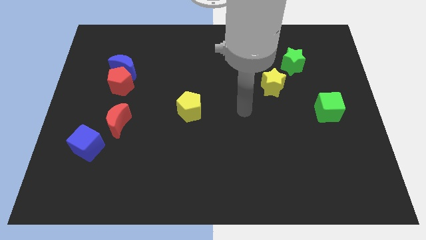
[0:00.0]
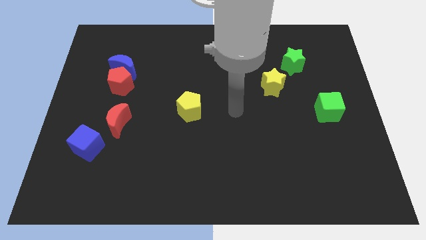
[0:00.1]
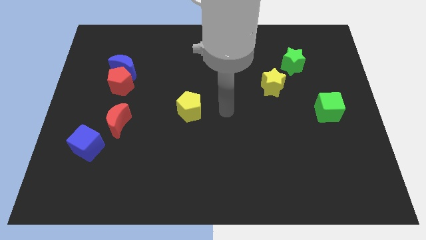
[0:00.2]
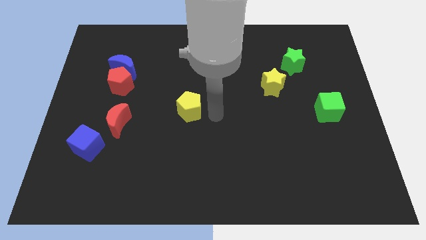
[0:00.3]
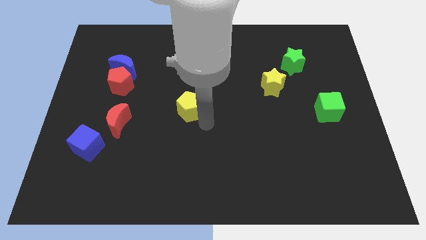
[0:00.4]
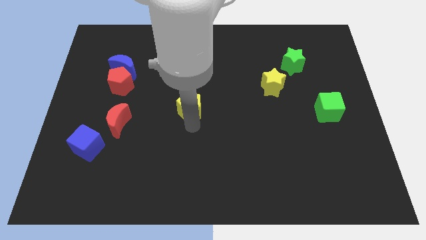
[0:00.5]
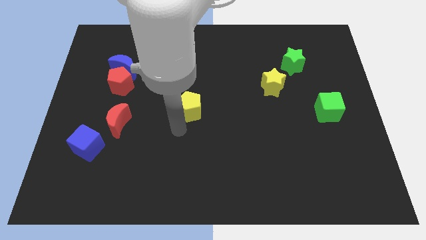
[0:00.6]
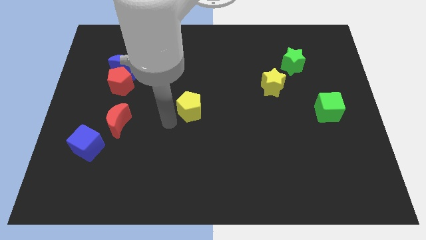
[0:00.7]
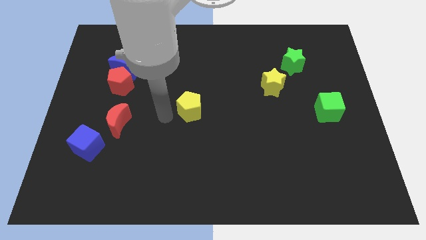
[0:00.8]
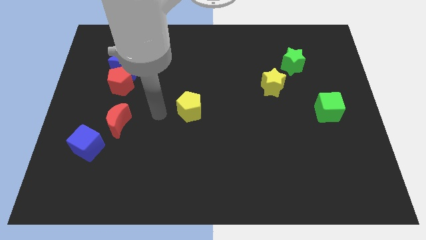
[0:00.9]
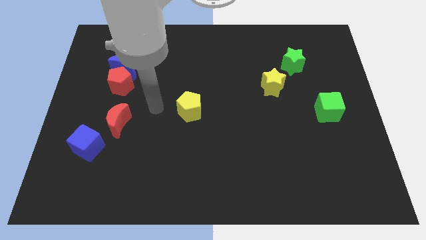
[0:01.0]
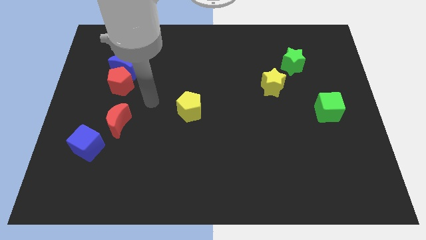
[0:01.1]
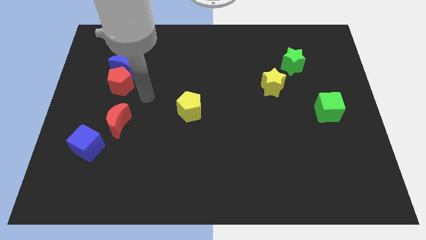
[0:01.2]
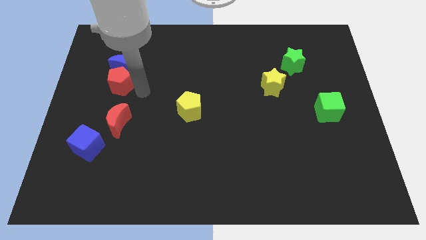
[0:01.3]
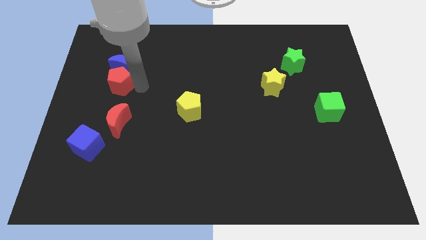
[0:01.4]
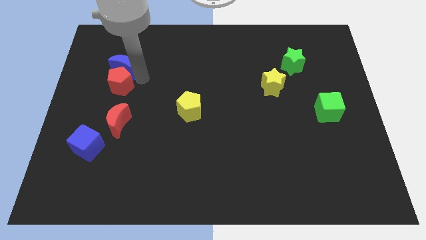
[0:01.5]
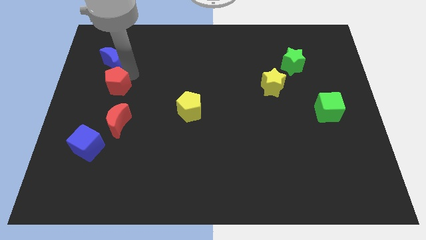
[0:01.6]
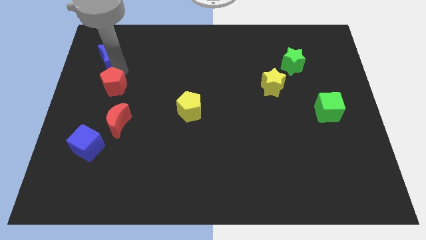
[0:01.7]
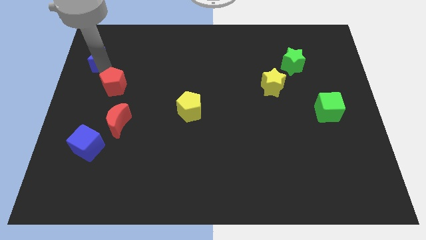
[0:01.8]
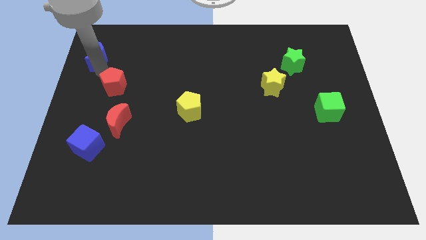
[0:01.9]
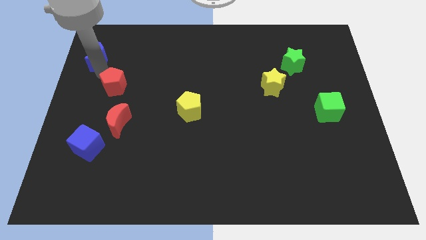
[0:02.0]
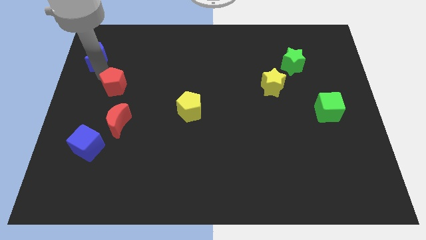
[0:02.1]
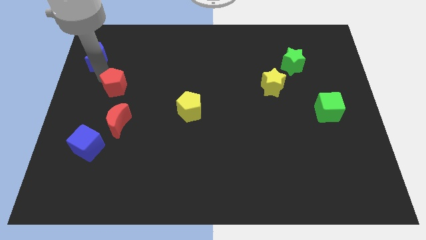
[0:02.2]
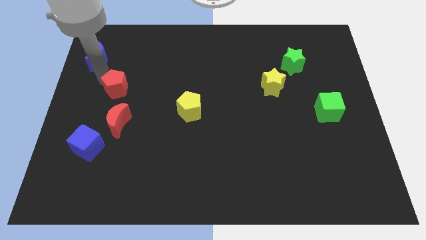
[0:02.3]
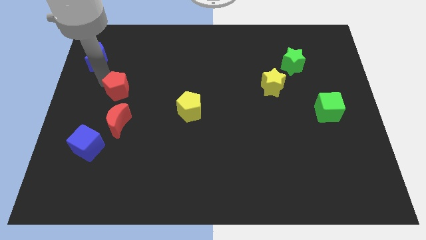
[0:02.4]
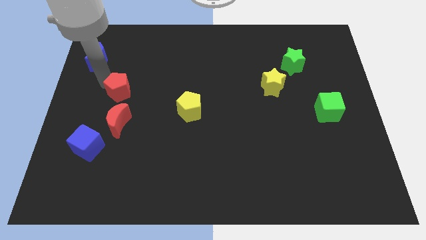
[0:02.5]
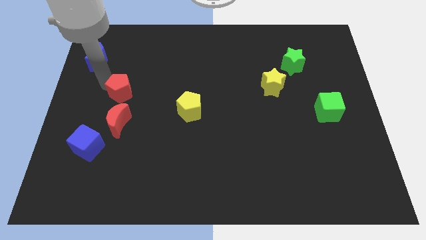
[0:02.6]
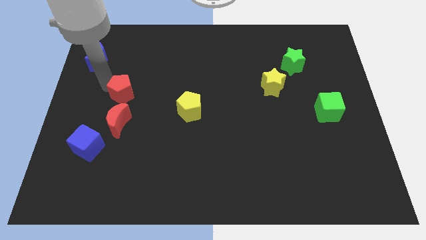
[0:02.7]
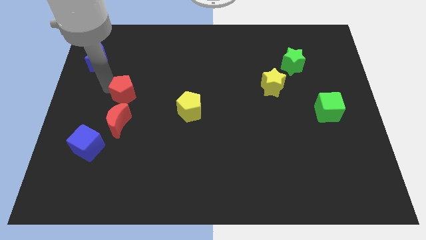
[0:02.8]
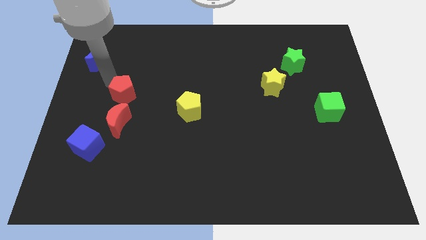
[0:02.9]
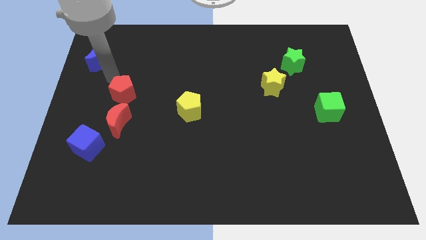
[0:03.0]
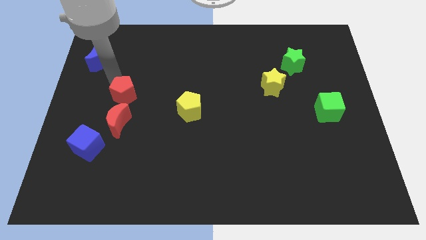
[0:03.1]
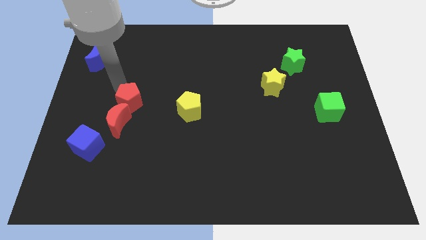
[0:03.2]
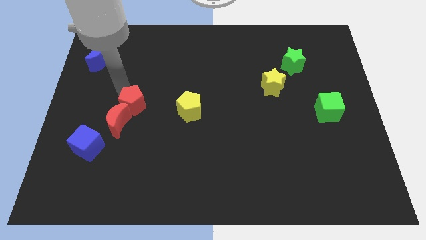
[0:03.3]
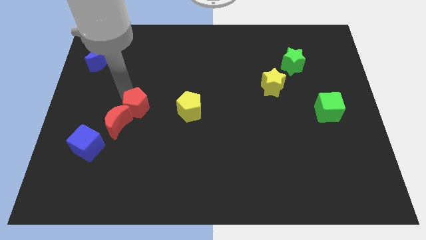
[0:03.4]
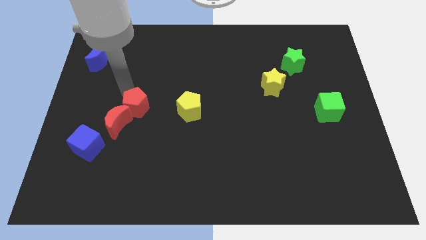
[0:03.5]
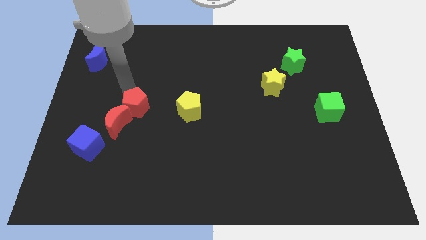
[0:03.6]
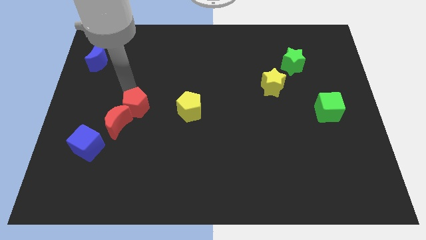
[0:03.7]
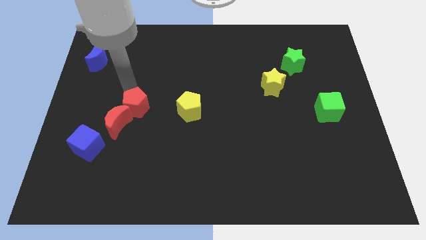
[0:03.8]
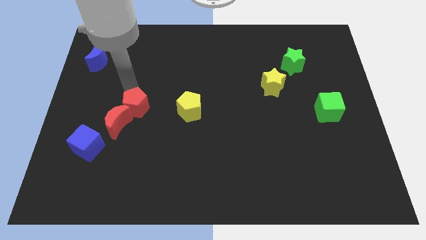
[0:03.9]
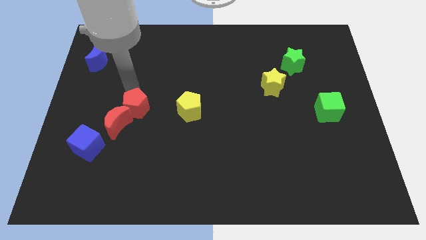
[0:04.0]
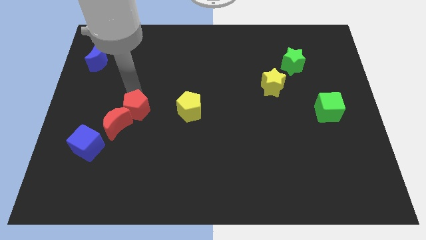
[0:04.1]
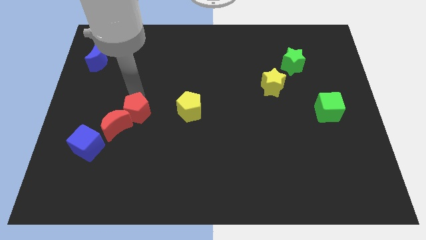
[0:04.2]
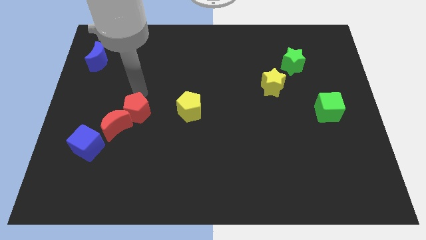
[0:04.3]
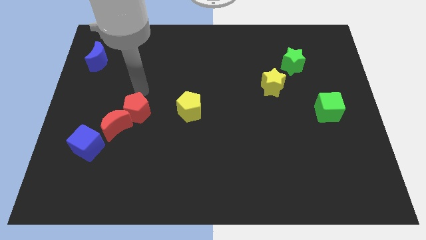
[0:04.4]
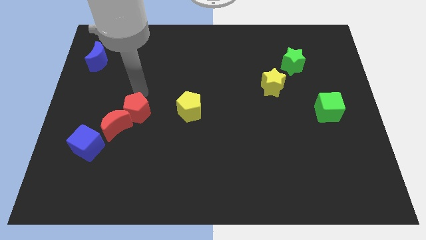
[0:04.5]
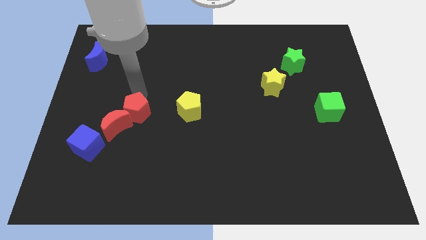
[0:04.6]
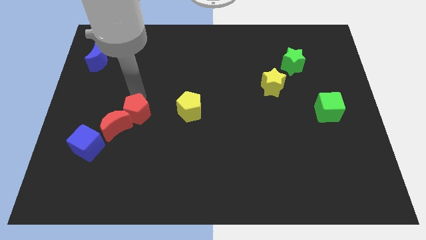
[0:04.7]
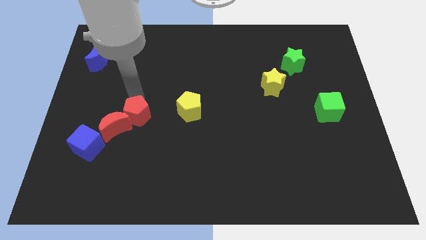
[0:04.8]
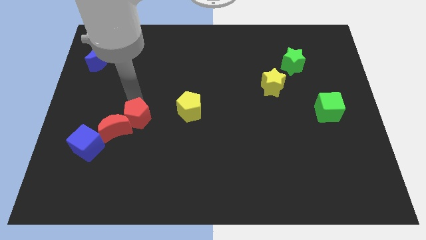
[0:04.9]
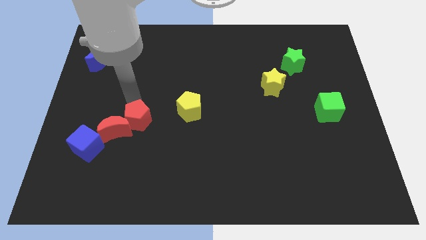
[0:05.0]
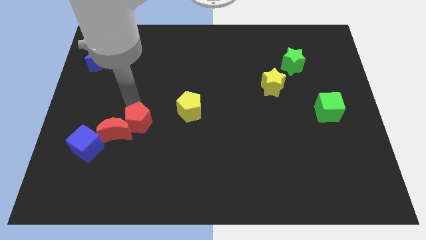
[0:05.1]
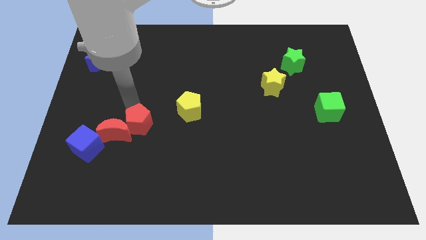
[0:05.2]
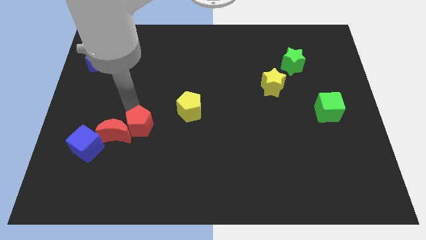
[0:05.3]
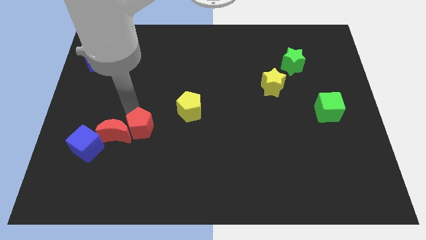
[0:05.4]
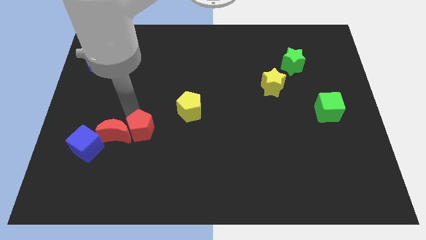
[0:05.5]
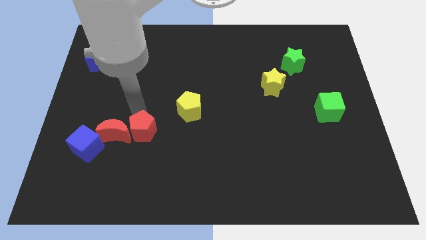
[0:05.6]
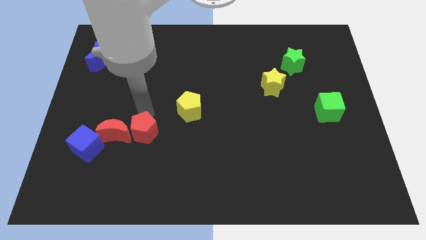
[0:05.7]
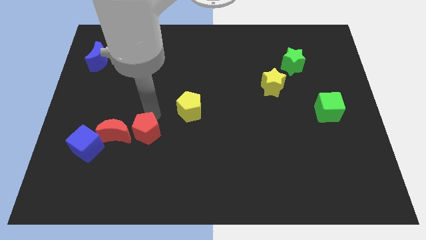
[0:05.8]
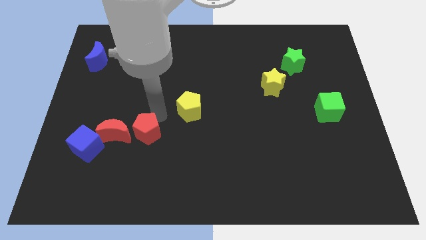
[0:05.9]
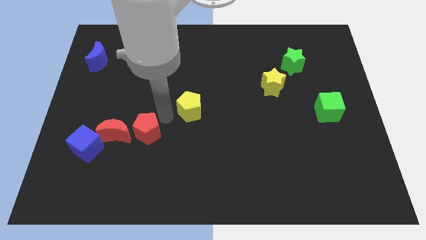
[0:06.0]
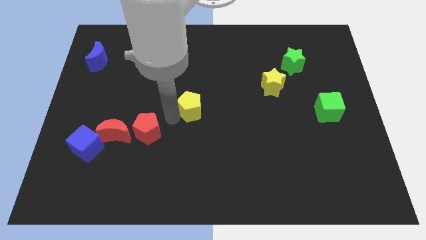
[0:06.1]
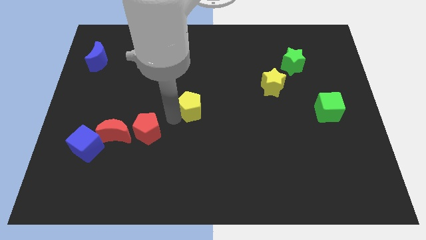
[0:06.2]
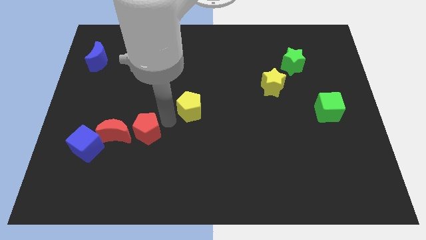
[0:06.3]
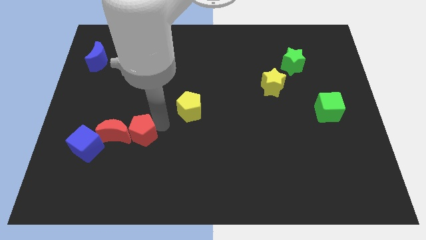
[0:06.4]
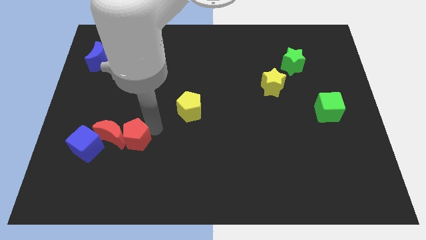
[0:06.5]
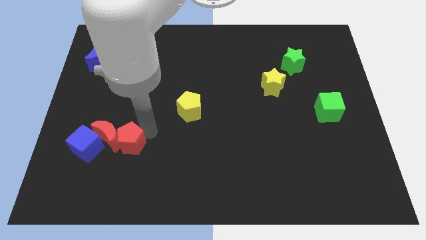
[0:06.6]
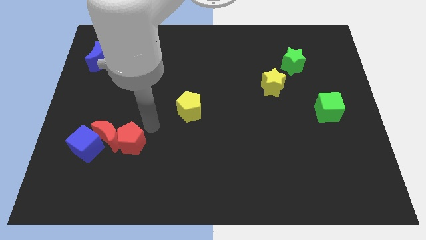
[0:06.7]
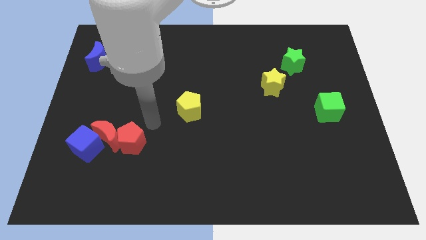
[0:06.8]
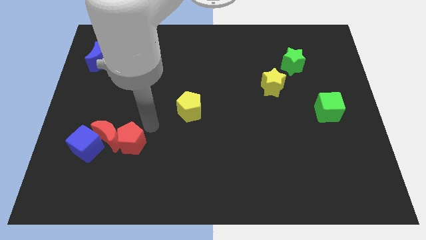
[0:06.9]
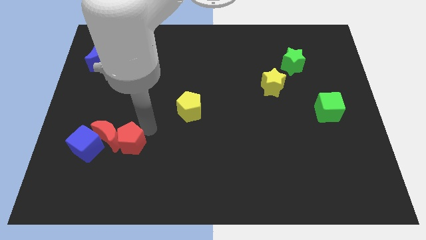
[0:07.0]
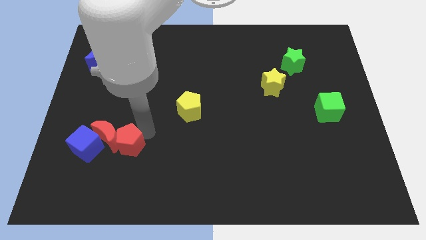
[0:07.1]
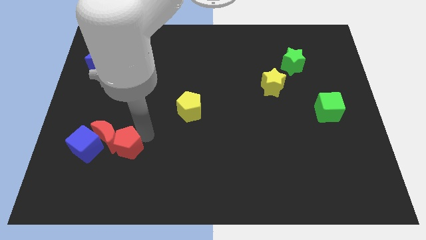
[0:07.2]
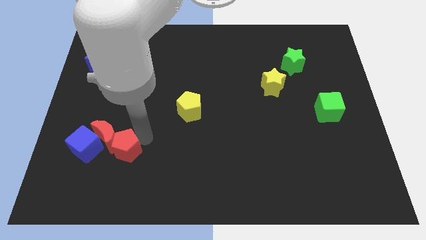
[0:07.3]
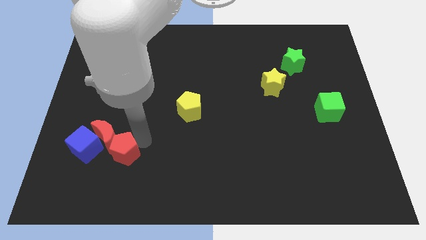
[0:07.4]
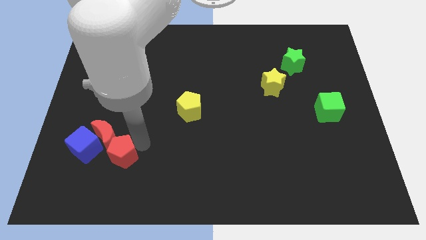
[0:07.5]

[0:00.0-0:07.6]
push the red pentagon to the bottom right side of the blue cube
